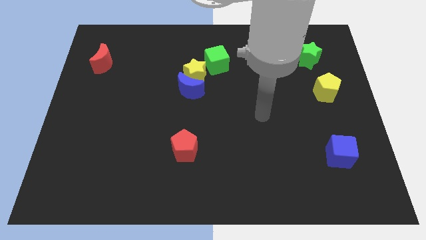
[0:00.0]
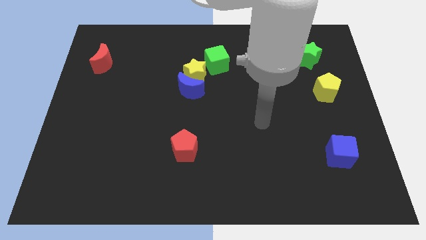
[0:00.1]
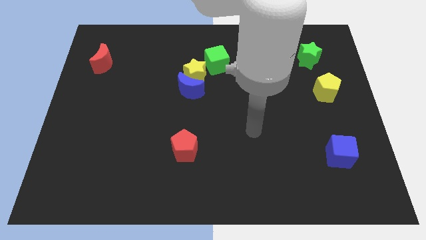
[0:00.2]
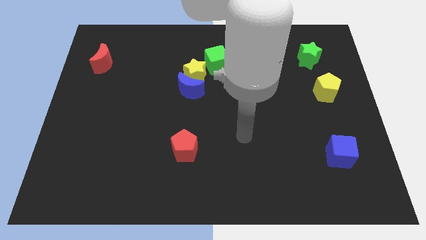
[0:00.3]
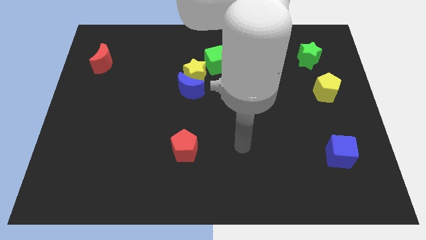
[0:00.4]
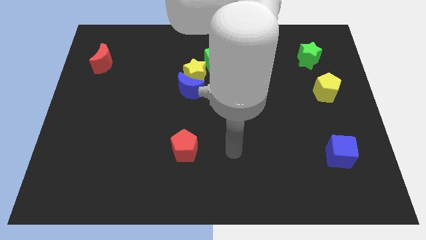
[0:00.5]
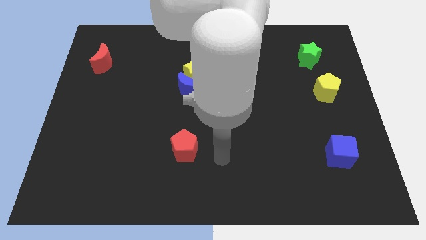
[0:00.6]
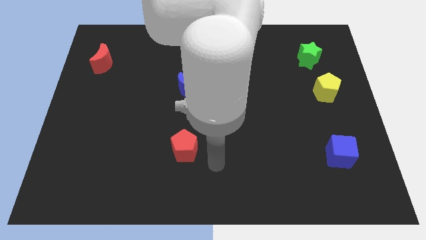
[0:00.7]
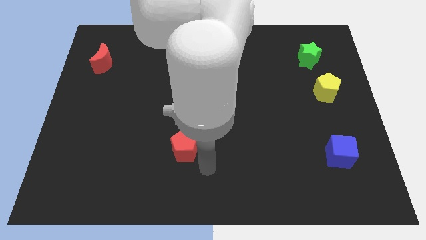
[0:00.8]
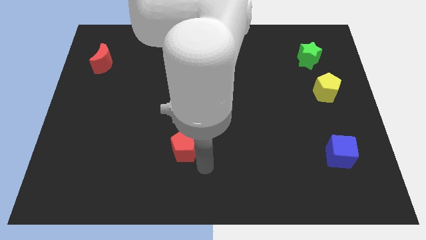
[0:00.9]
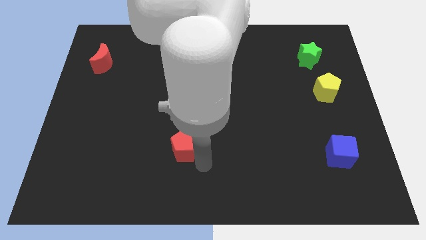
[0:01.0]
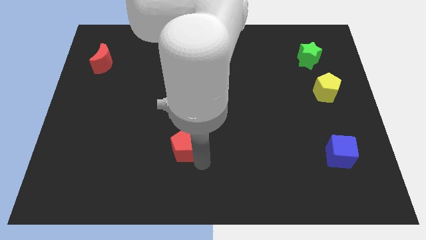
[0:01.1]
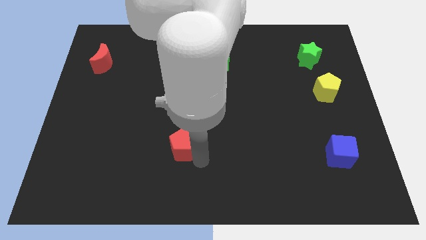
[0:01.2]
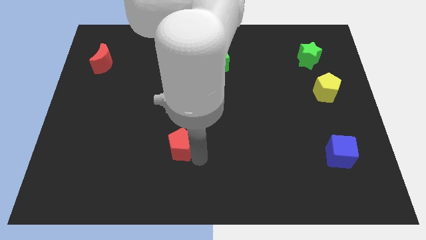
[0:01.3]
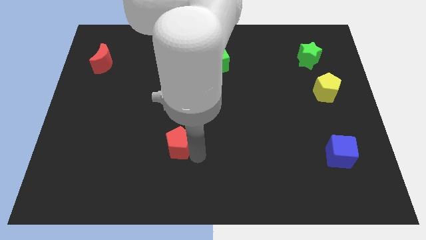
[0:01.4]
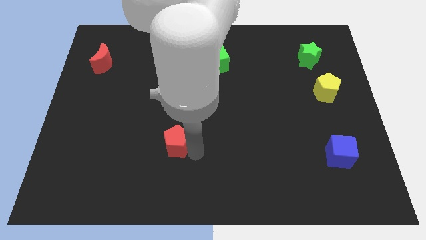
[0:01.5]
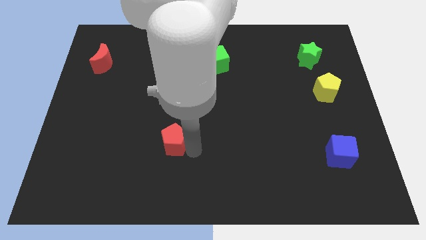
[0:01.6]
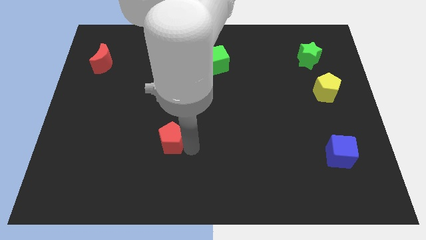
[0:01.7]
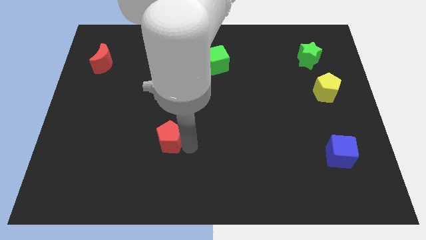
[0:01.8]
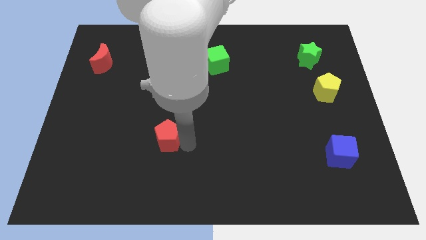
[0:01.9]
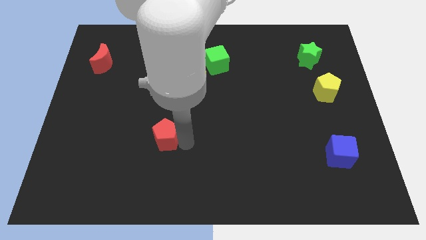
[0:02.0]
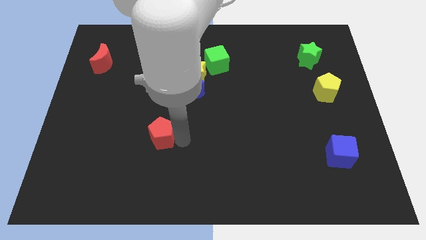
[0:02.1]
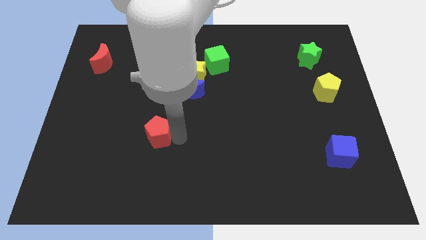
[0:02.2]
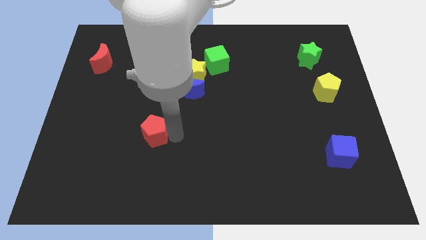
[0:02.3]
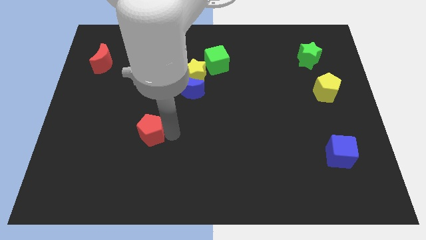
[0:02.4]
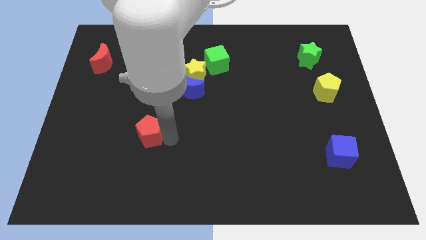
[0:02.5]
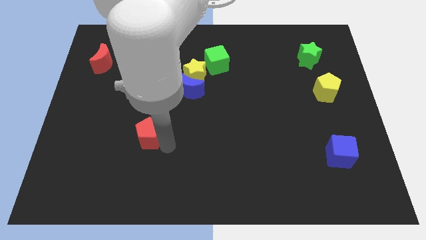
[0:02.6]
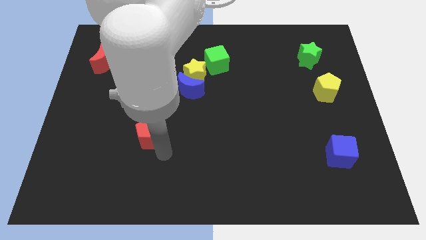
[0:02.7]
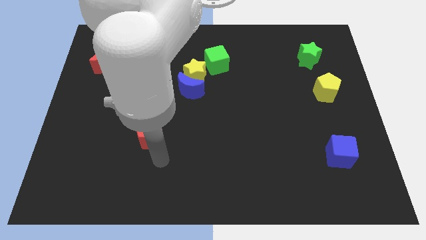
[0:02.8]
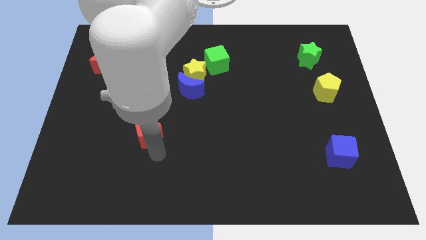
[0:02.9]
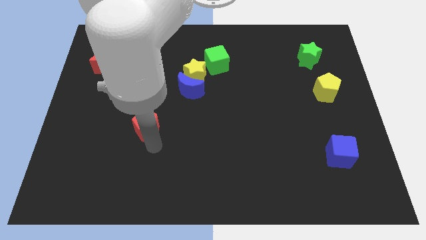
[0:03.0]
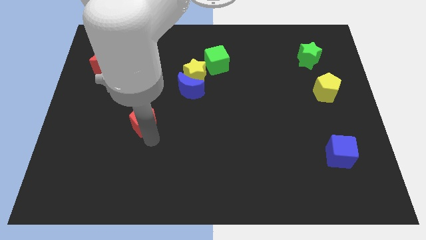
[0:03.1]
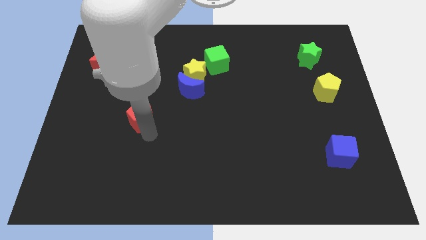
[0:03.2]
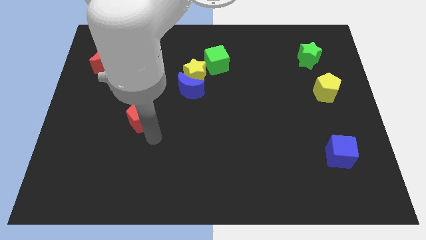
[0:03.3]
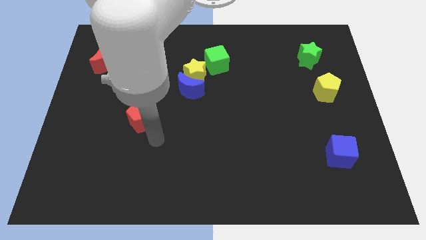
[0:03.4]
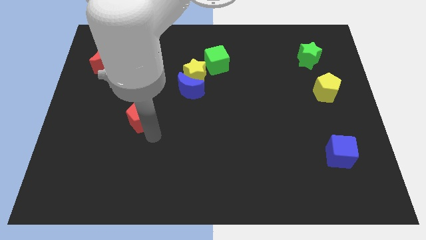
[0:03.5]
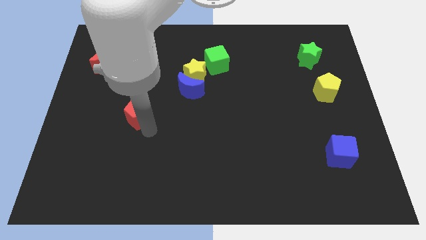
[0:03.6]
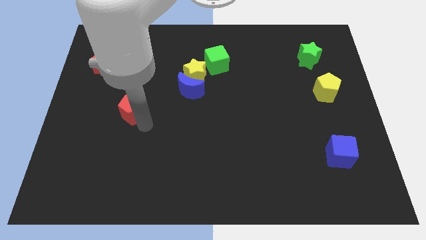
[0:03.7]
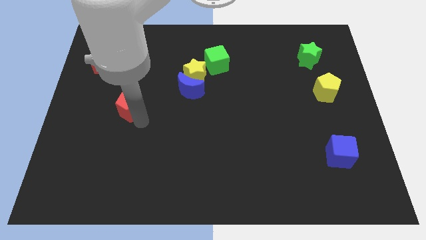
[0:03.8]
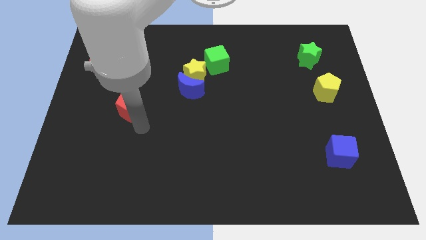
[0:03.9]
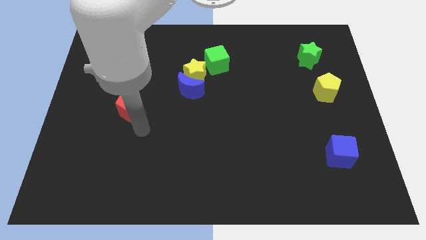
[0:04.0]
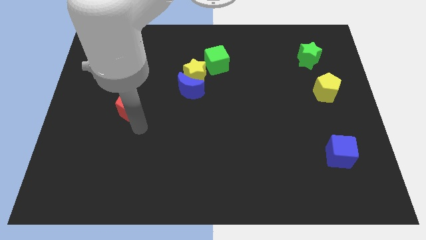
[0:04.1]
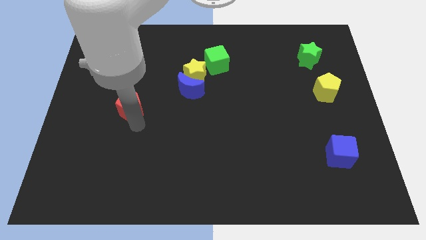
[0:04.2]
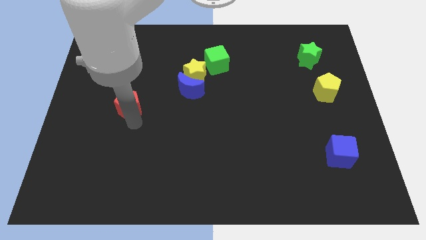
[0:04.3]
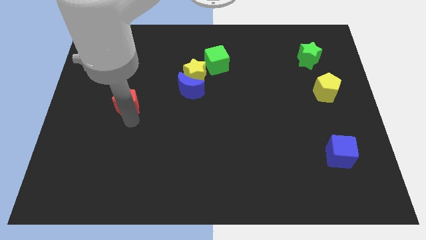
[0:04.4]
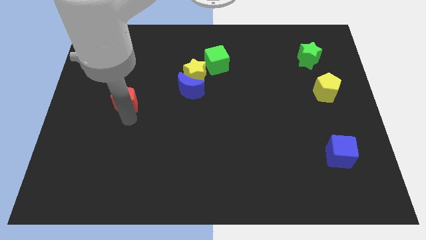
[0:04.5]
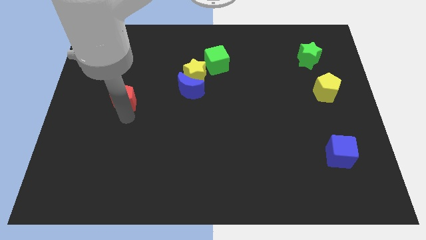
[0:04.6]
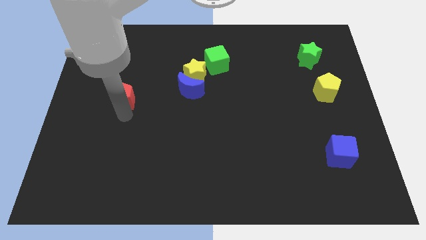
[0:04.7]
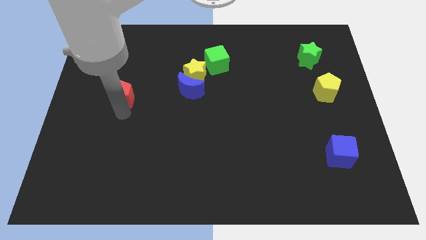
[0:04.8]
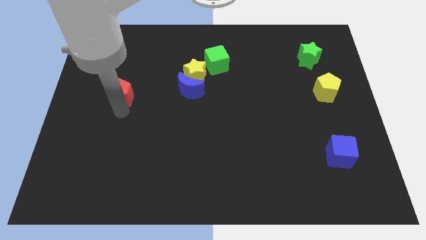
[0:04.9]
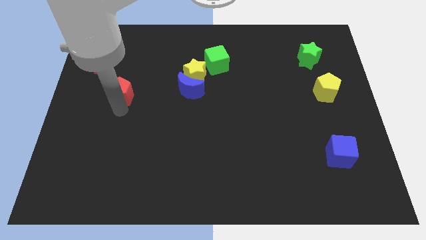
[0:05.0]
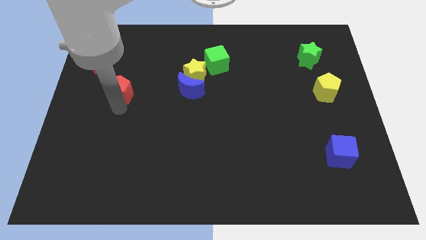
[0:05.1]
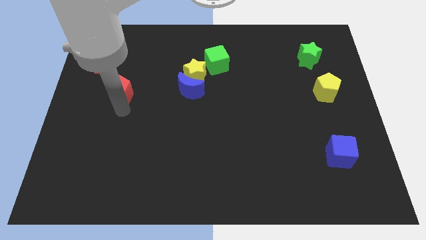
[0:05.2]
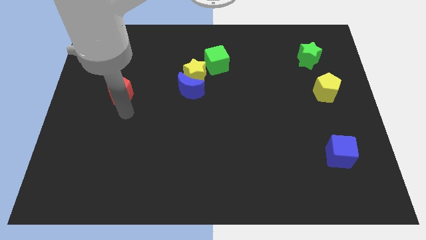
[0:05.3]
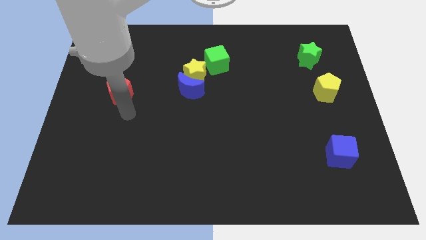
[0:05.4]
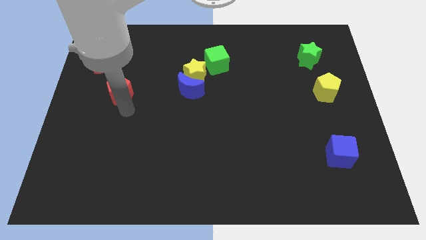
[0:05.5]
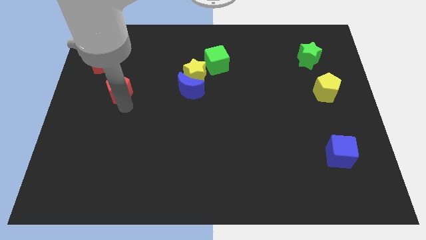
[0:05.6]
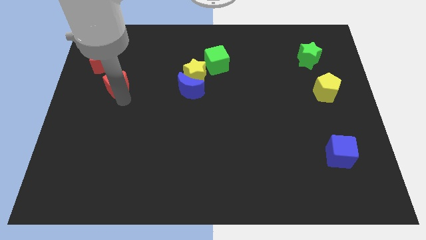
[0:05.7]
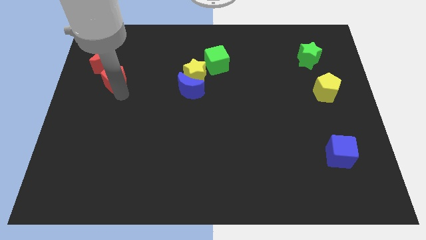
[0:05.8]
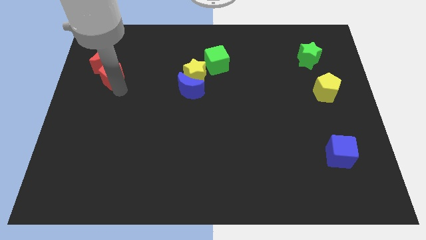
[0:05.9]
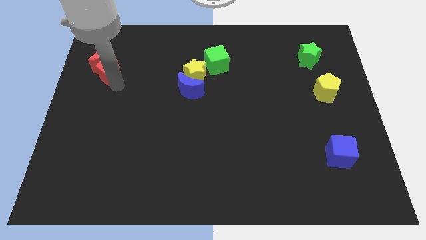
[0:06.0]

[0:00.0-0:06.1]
slide the red pentagon towards the red moon

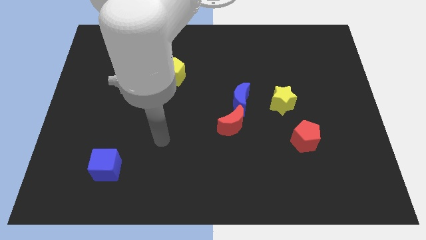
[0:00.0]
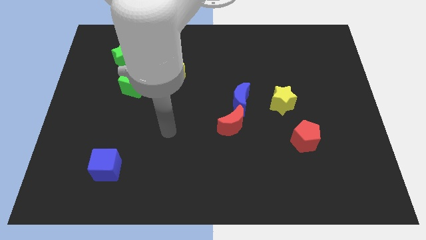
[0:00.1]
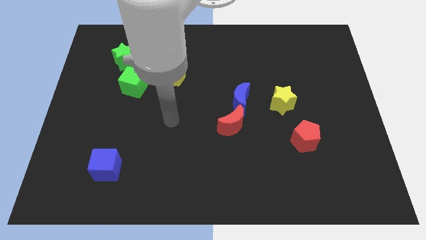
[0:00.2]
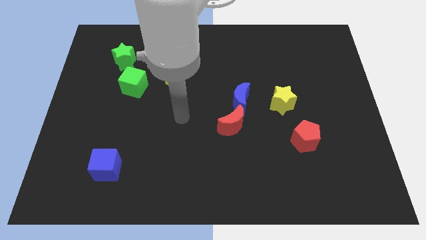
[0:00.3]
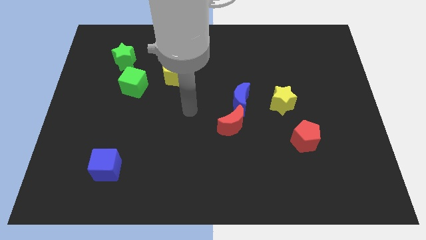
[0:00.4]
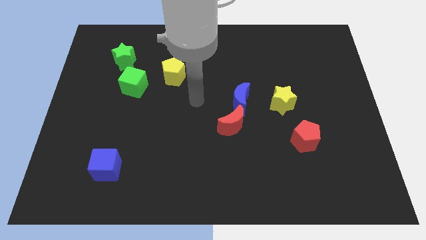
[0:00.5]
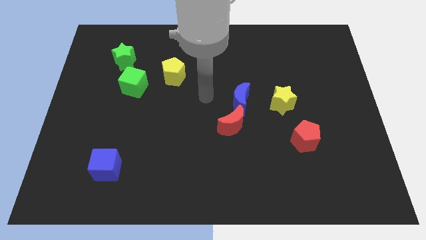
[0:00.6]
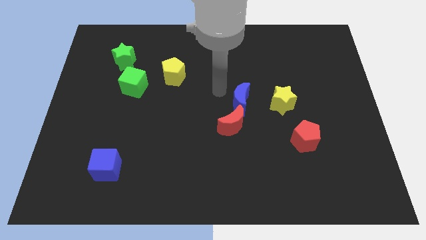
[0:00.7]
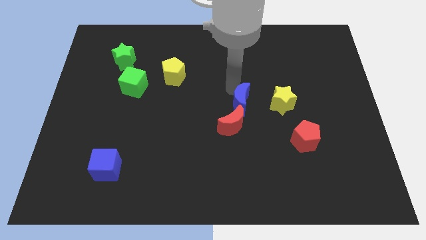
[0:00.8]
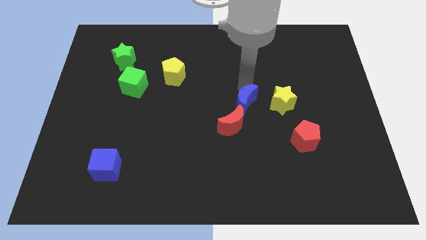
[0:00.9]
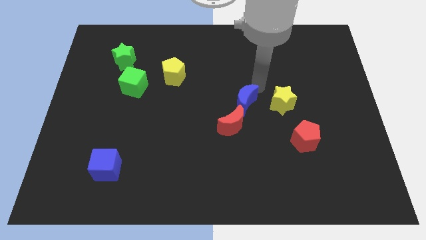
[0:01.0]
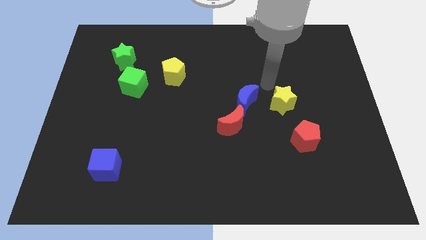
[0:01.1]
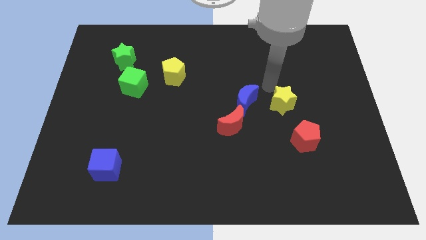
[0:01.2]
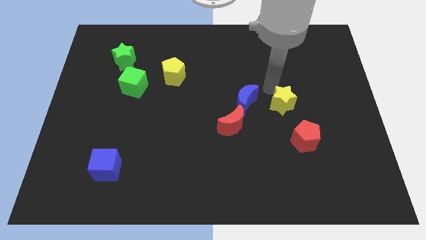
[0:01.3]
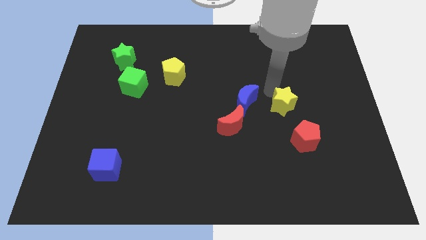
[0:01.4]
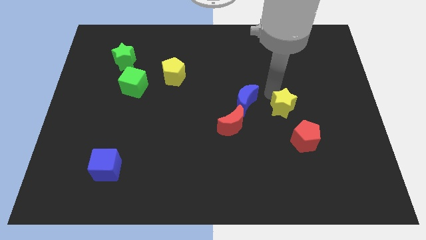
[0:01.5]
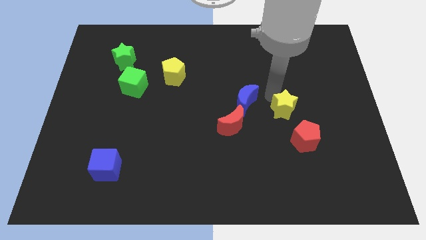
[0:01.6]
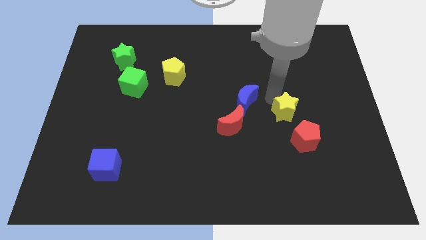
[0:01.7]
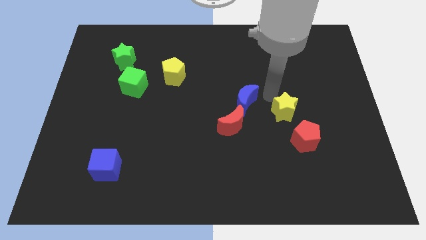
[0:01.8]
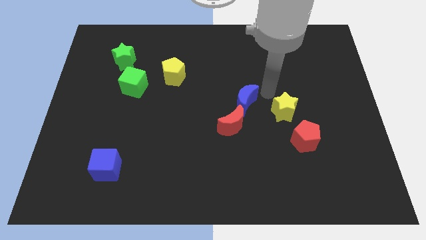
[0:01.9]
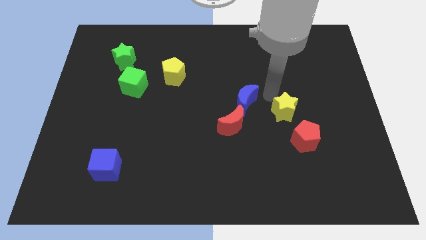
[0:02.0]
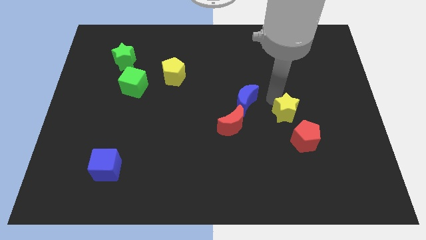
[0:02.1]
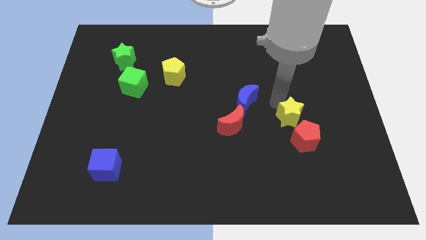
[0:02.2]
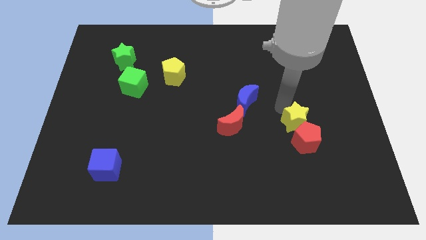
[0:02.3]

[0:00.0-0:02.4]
push the yellow star next to the red pentagon
